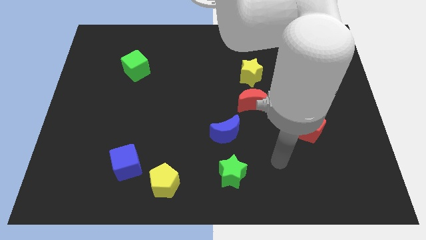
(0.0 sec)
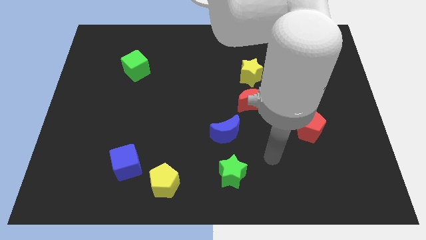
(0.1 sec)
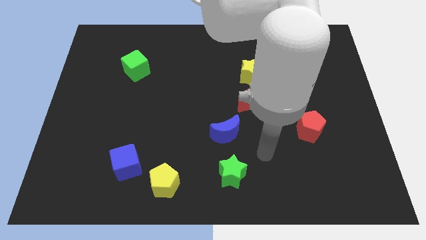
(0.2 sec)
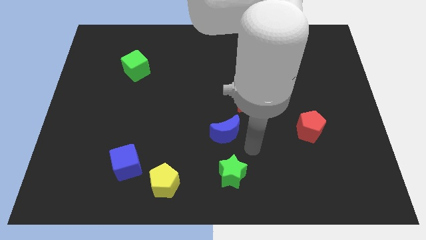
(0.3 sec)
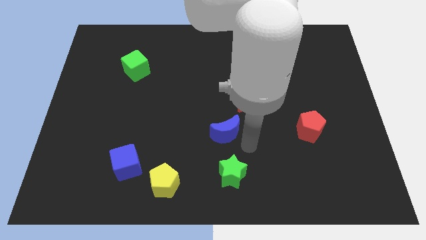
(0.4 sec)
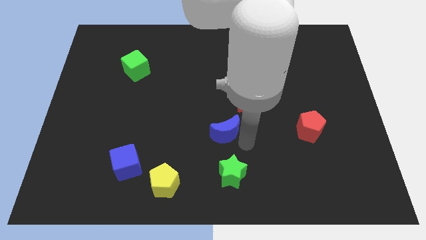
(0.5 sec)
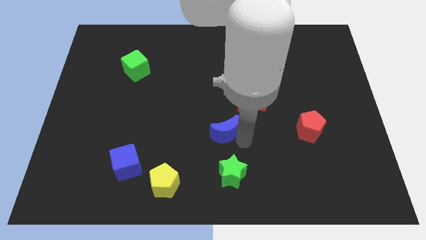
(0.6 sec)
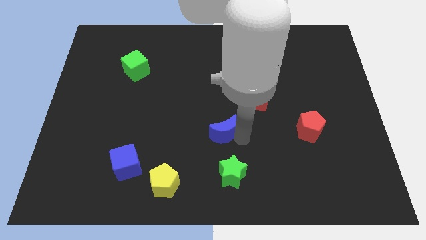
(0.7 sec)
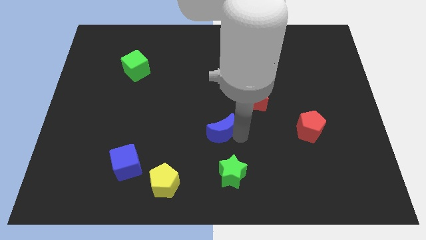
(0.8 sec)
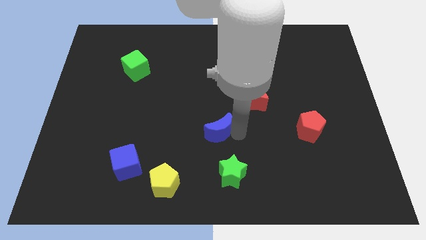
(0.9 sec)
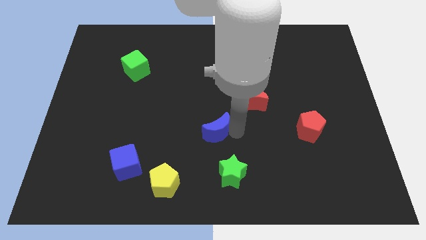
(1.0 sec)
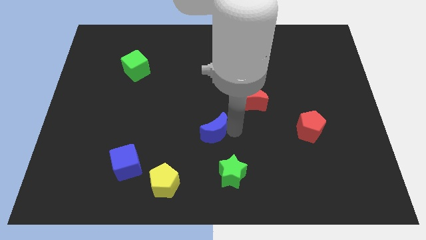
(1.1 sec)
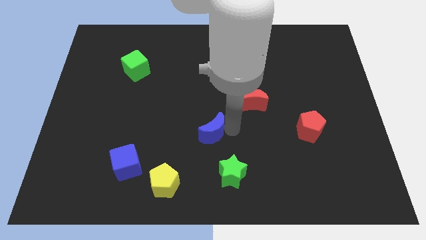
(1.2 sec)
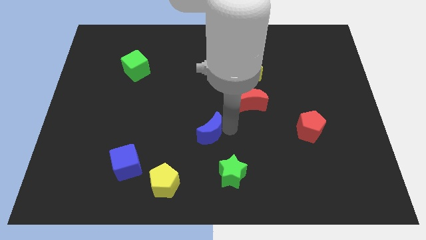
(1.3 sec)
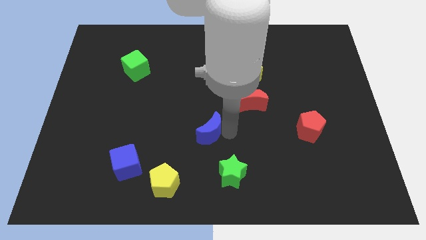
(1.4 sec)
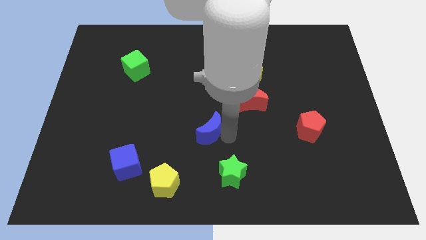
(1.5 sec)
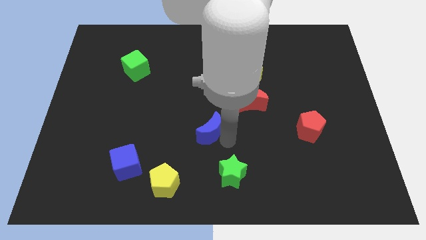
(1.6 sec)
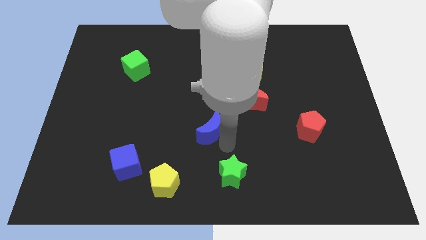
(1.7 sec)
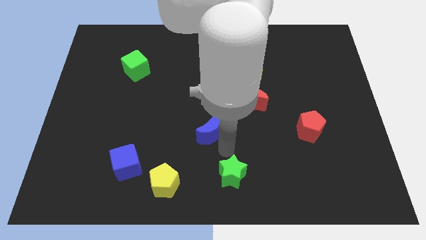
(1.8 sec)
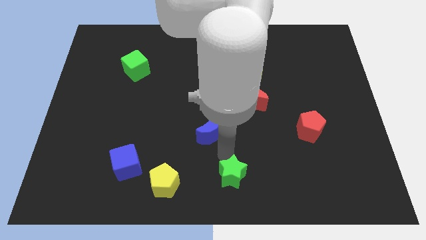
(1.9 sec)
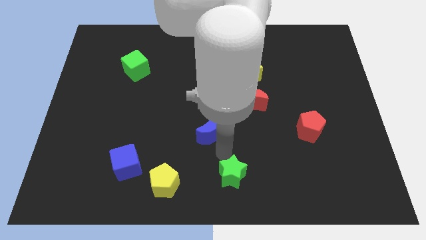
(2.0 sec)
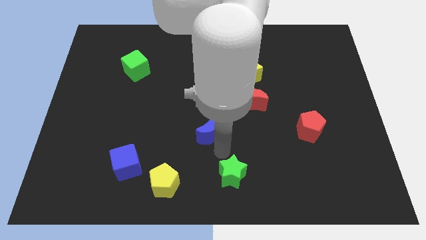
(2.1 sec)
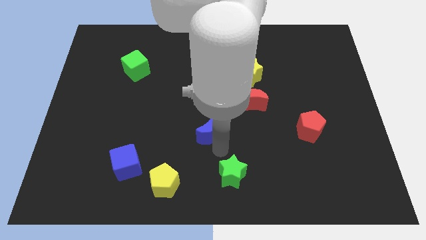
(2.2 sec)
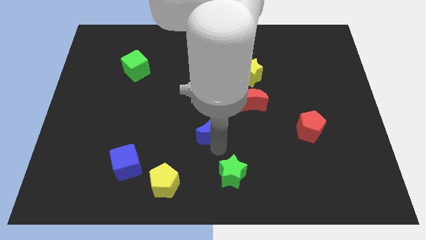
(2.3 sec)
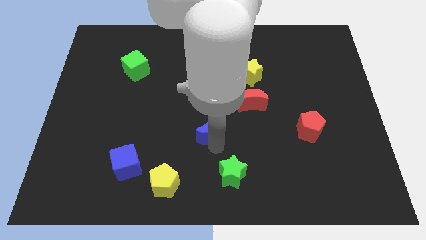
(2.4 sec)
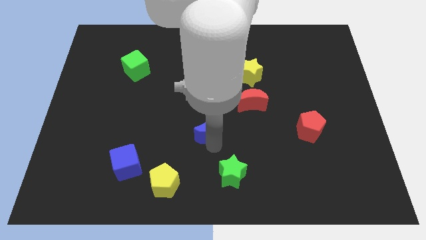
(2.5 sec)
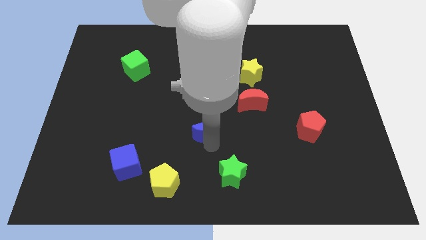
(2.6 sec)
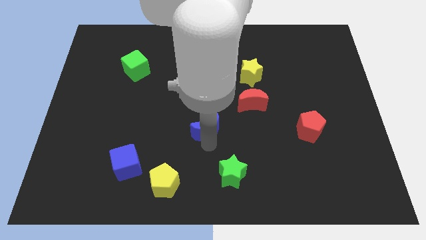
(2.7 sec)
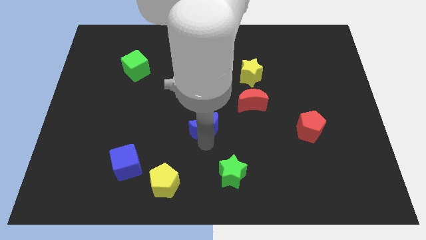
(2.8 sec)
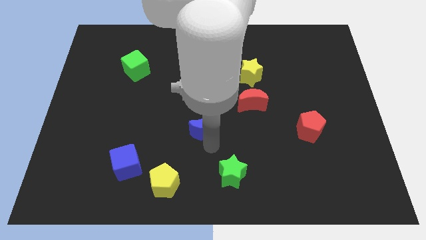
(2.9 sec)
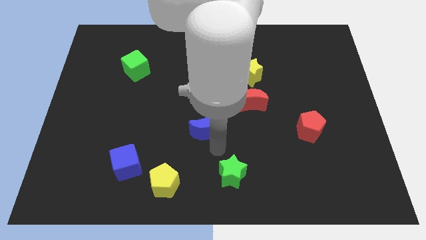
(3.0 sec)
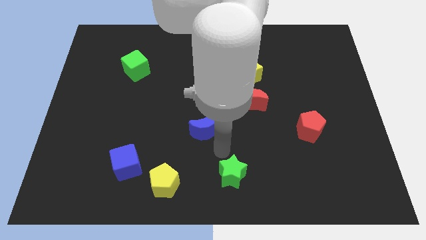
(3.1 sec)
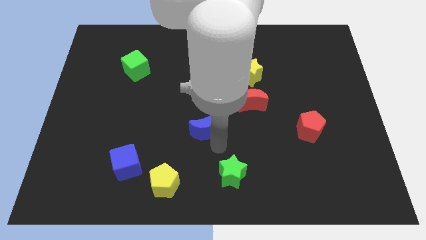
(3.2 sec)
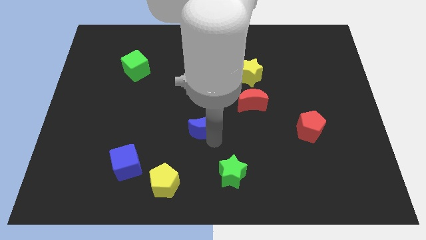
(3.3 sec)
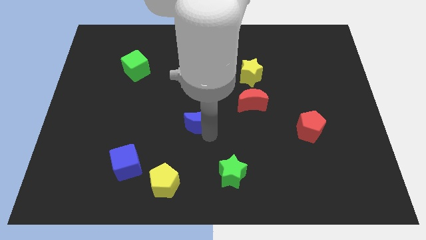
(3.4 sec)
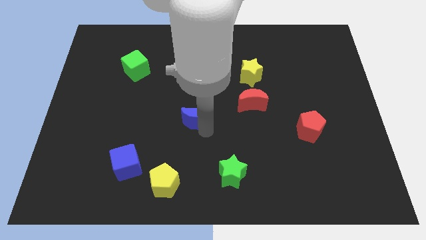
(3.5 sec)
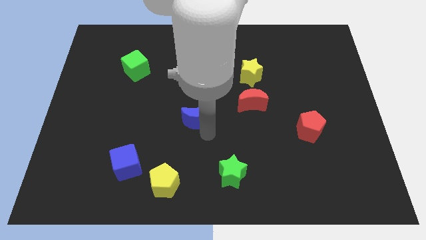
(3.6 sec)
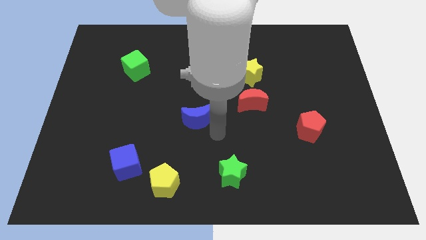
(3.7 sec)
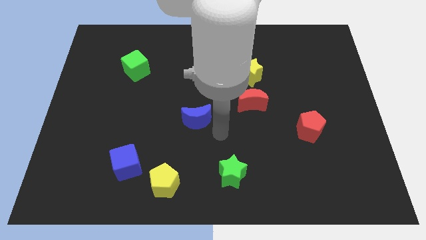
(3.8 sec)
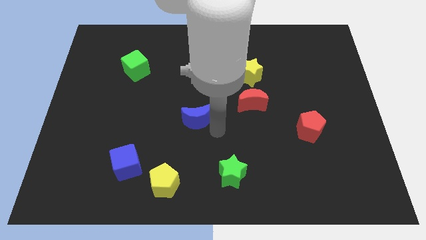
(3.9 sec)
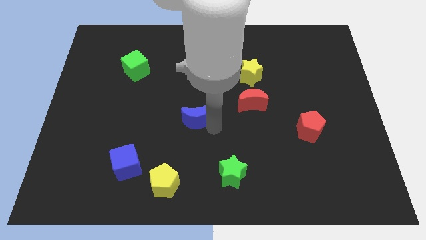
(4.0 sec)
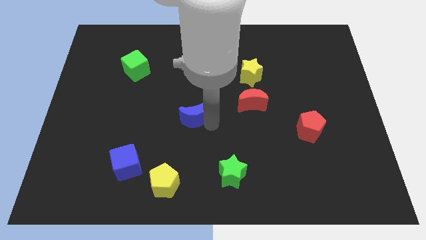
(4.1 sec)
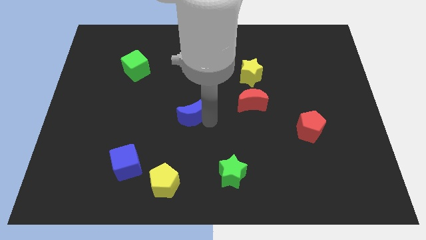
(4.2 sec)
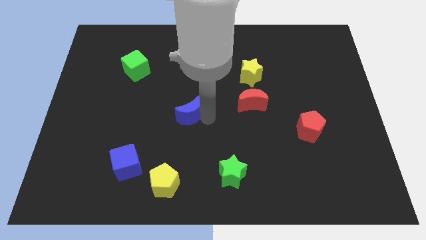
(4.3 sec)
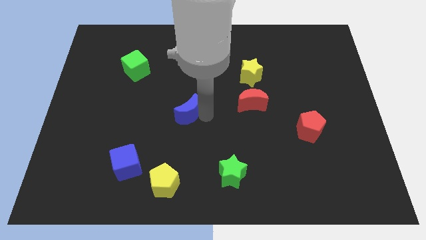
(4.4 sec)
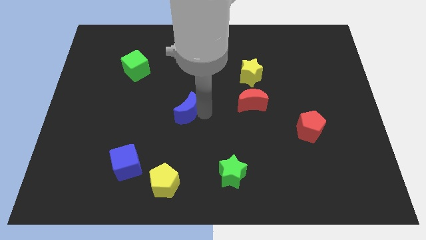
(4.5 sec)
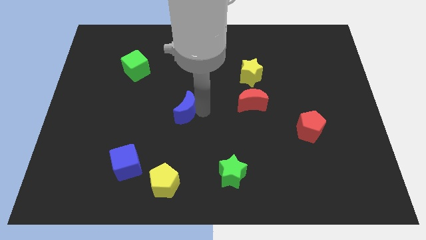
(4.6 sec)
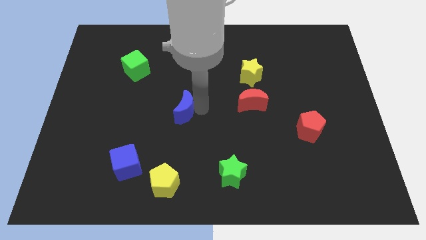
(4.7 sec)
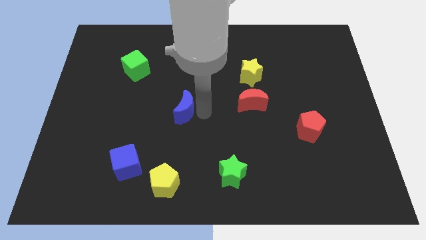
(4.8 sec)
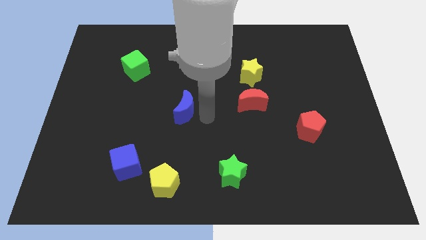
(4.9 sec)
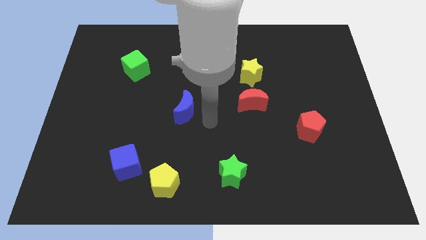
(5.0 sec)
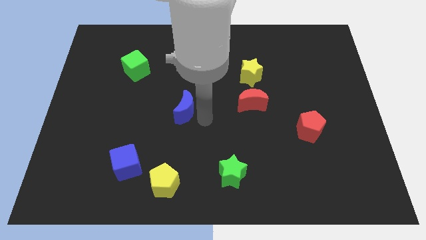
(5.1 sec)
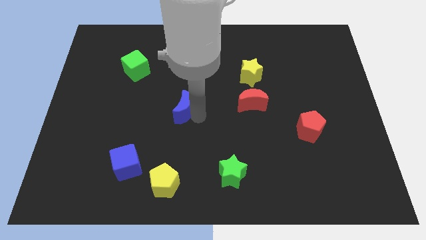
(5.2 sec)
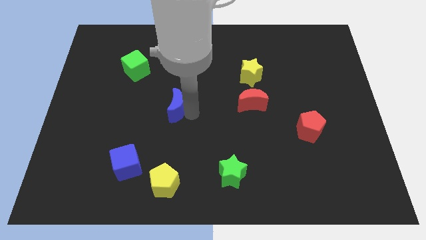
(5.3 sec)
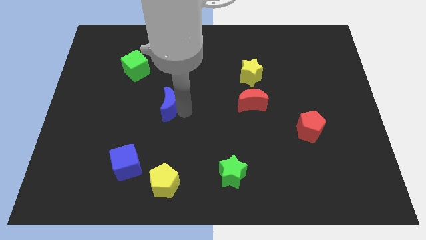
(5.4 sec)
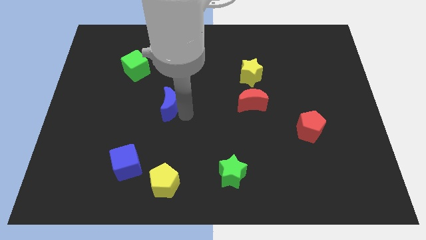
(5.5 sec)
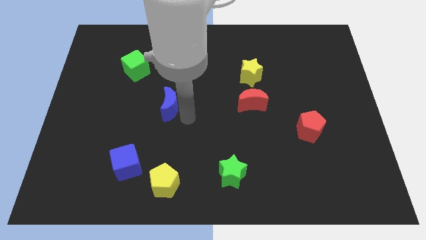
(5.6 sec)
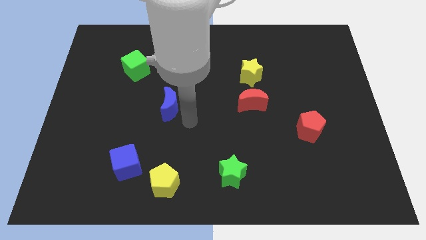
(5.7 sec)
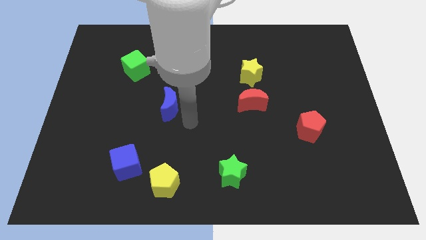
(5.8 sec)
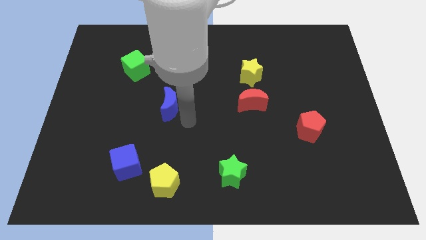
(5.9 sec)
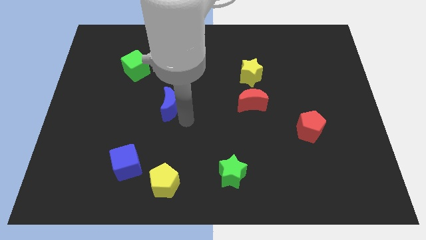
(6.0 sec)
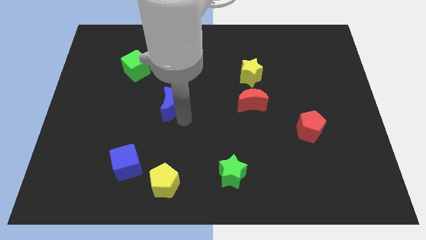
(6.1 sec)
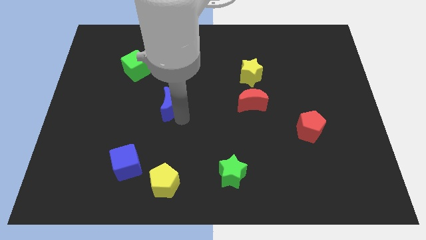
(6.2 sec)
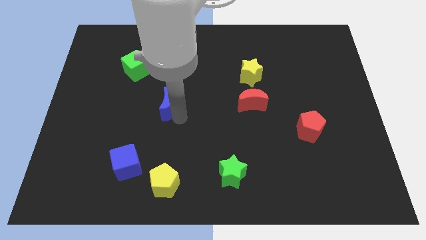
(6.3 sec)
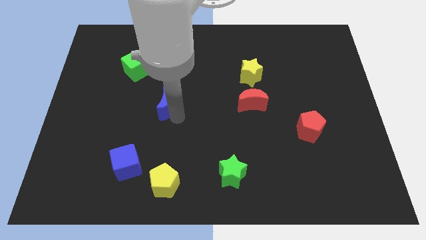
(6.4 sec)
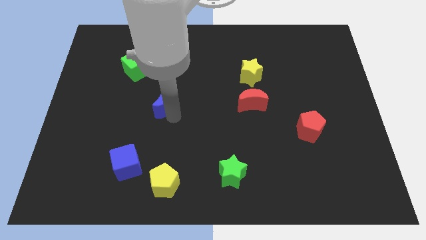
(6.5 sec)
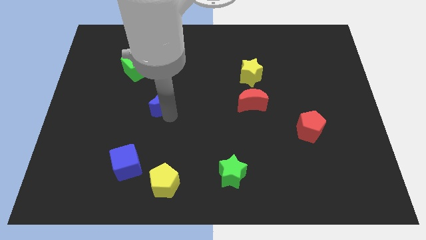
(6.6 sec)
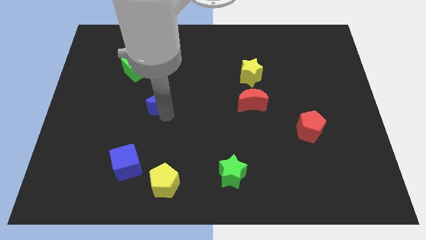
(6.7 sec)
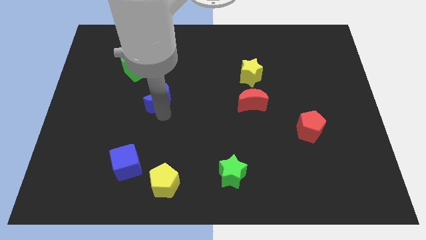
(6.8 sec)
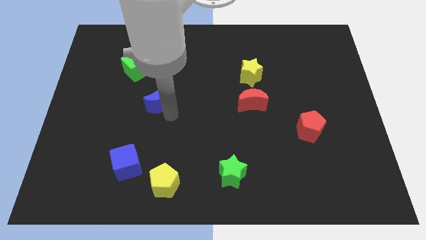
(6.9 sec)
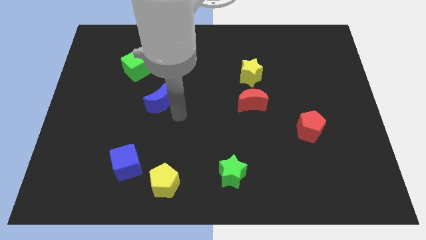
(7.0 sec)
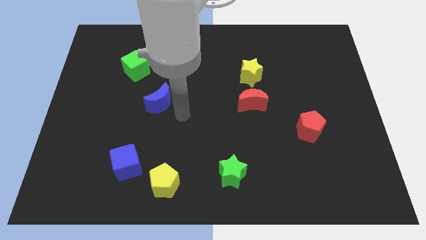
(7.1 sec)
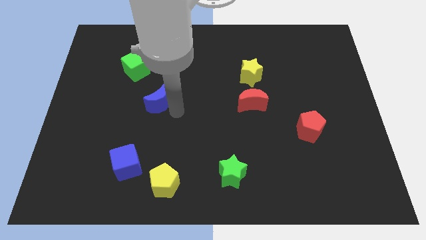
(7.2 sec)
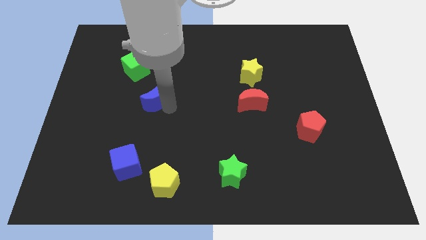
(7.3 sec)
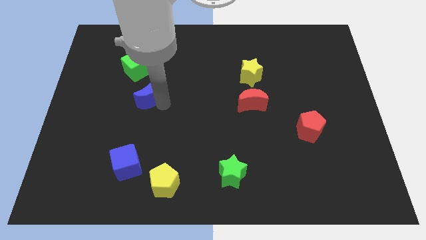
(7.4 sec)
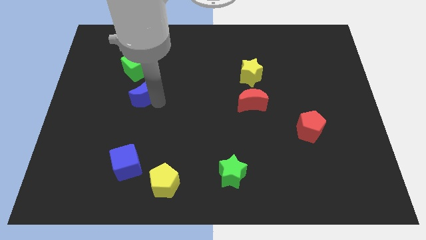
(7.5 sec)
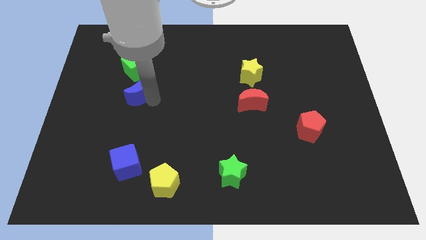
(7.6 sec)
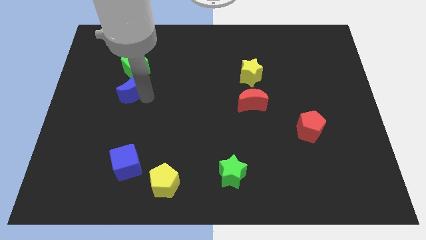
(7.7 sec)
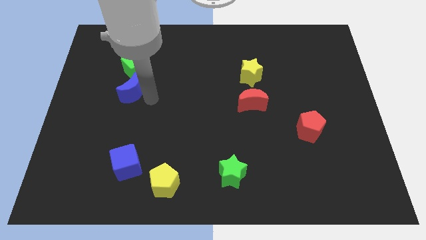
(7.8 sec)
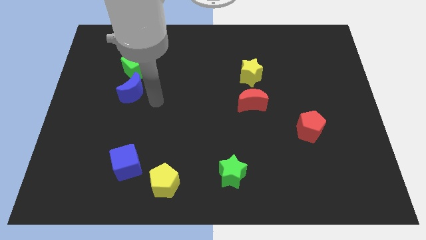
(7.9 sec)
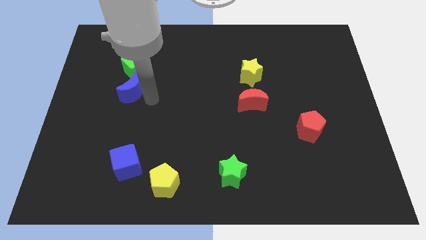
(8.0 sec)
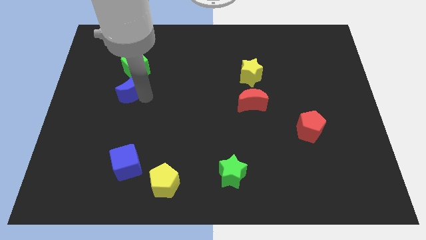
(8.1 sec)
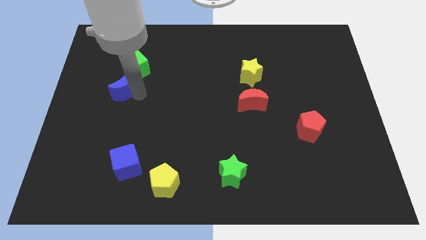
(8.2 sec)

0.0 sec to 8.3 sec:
push the blue moon to the bottom left of the green cube
